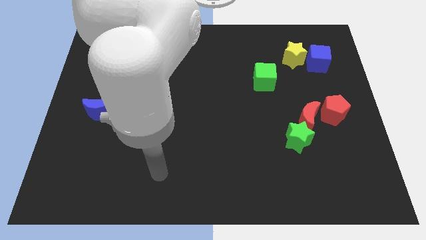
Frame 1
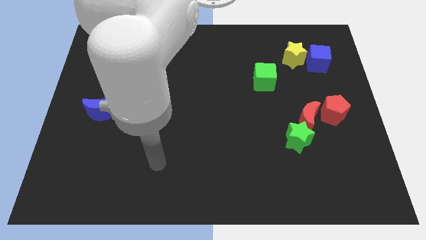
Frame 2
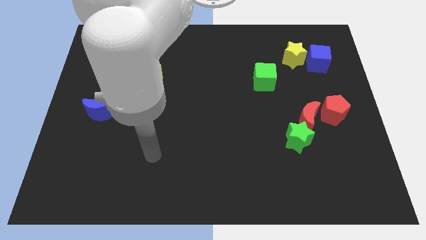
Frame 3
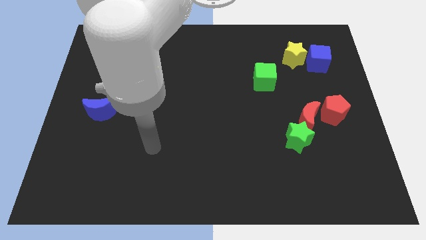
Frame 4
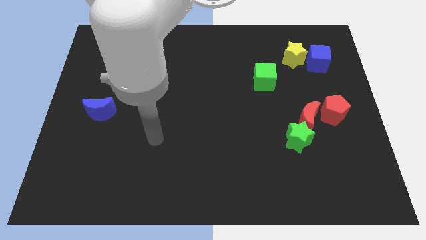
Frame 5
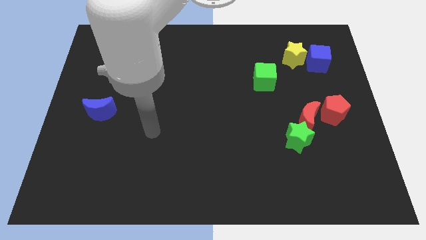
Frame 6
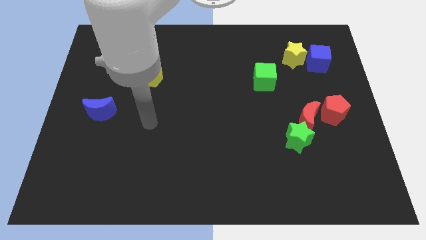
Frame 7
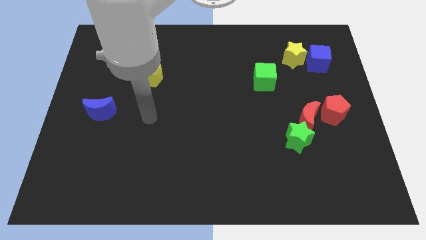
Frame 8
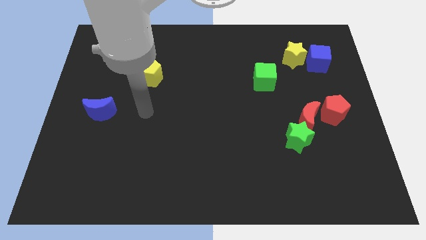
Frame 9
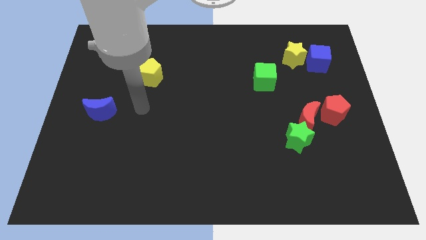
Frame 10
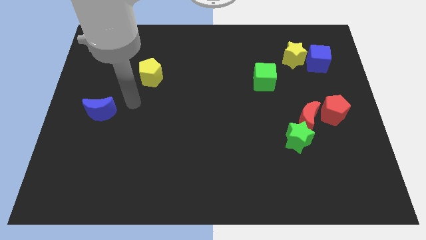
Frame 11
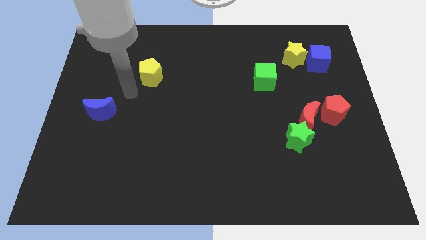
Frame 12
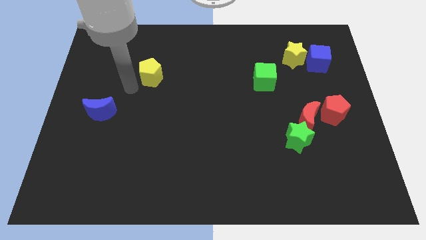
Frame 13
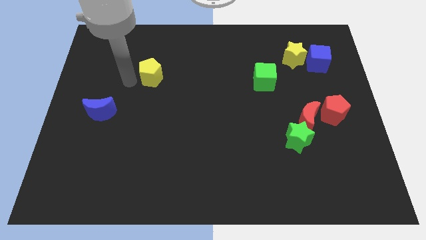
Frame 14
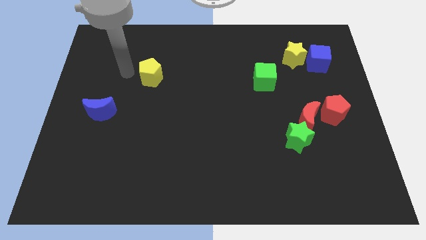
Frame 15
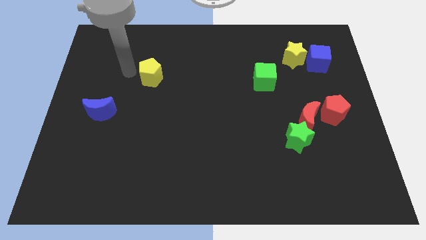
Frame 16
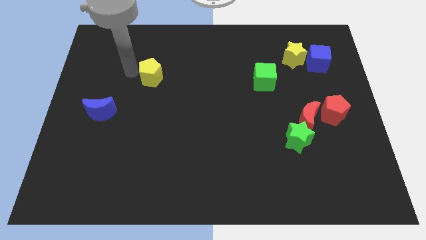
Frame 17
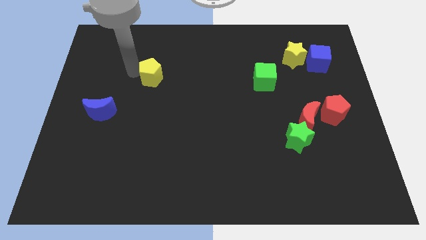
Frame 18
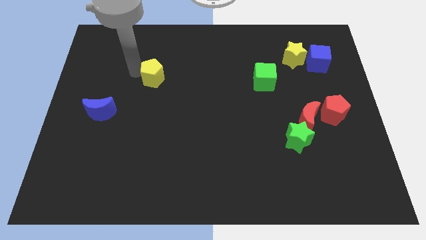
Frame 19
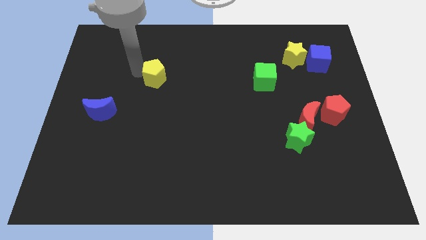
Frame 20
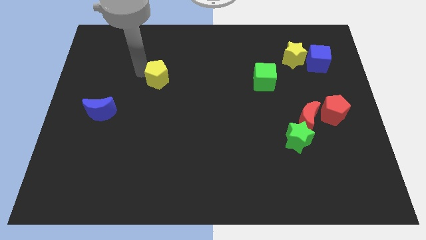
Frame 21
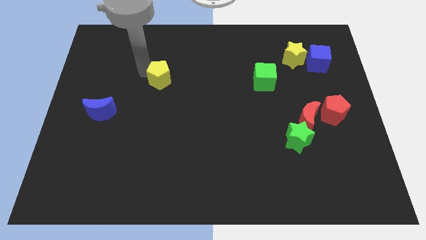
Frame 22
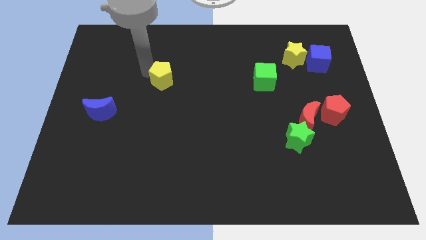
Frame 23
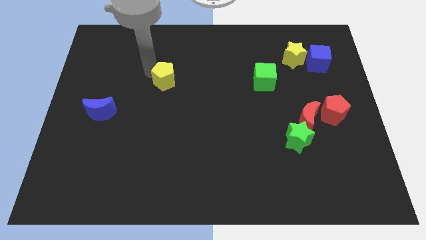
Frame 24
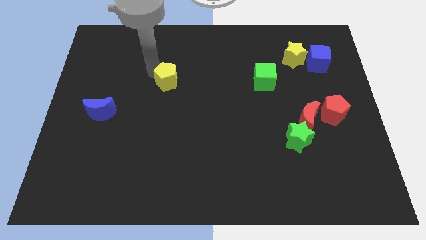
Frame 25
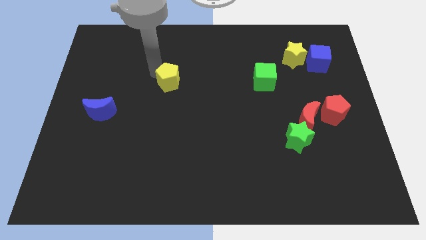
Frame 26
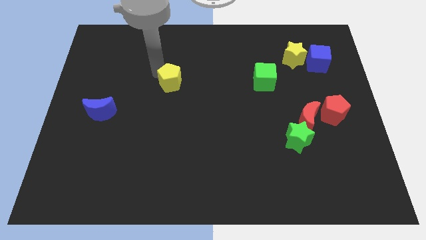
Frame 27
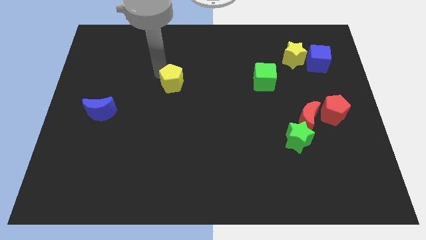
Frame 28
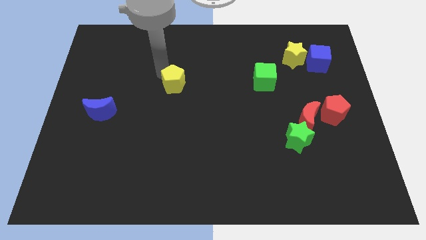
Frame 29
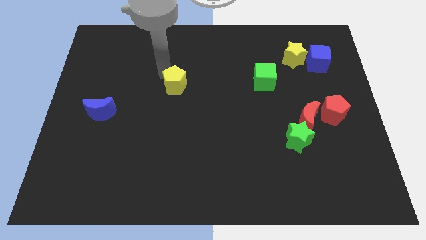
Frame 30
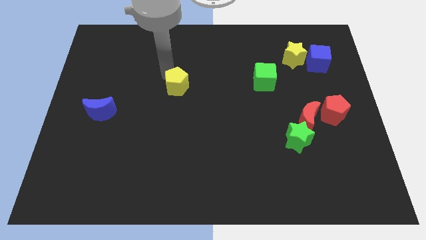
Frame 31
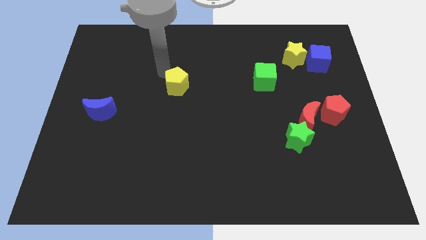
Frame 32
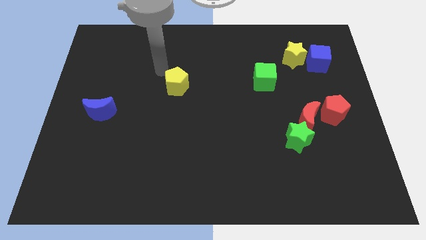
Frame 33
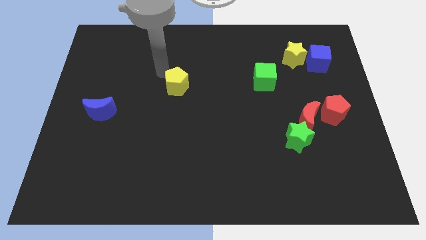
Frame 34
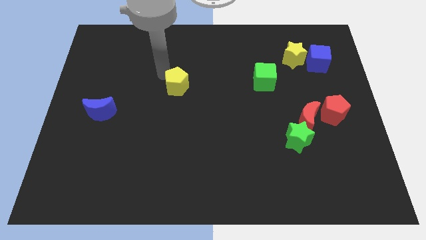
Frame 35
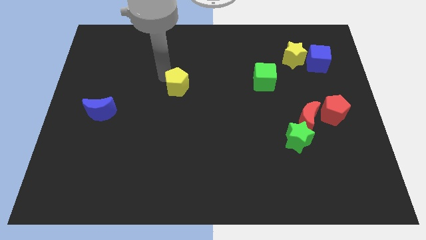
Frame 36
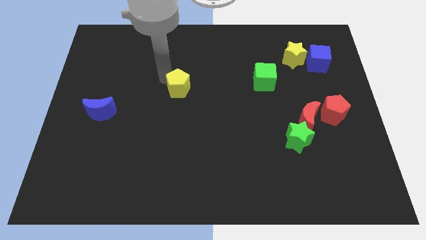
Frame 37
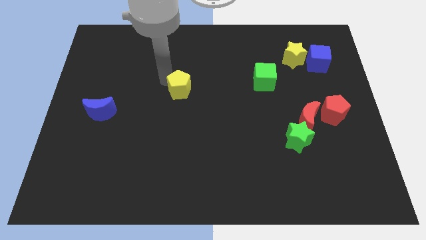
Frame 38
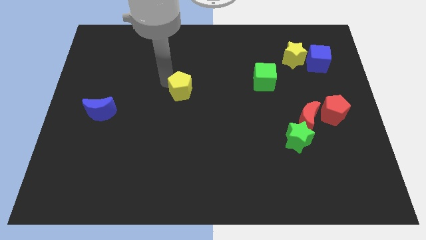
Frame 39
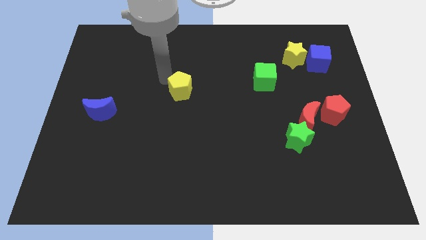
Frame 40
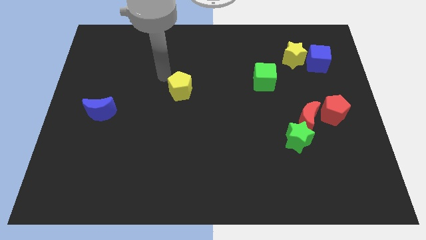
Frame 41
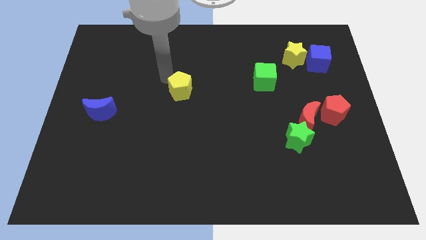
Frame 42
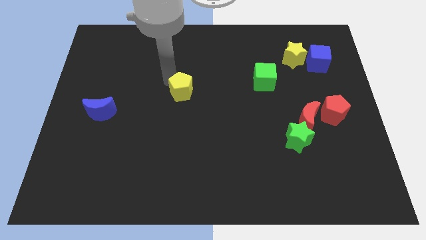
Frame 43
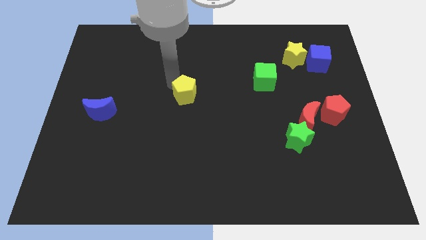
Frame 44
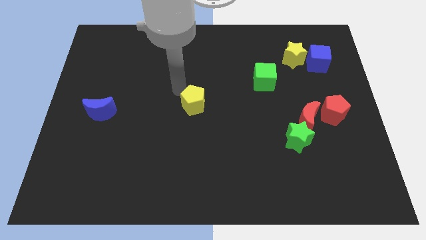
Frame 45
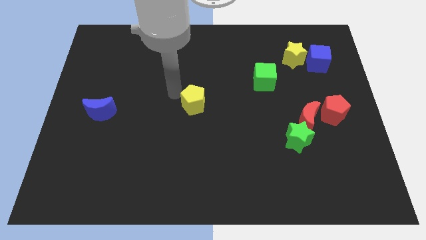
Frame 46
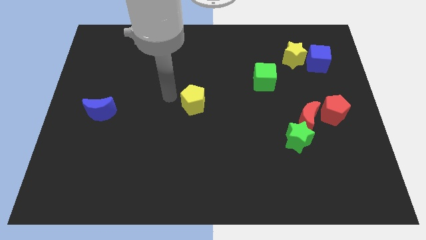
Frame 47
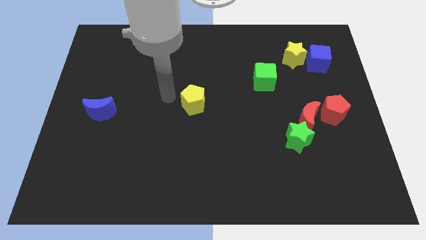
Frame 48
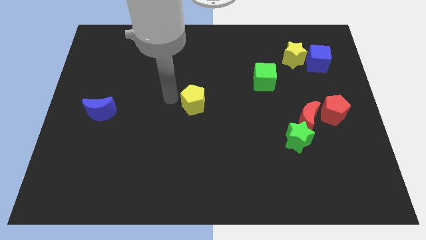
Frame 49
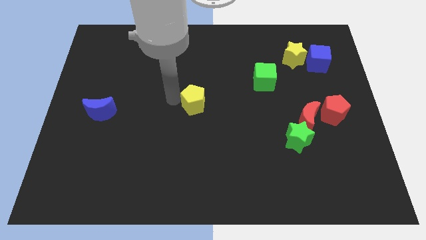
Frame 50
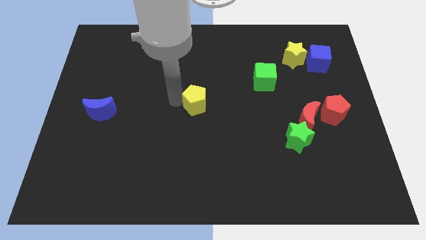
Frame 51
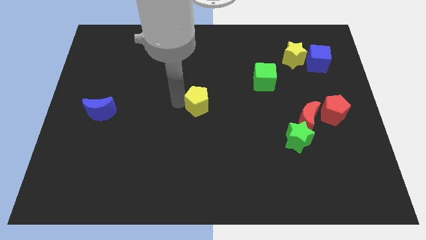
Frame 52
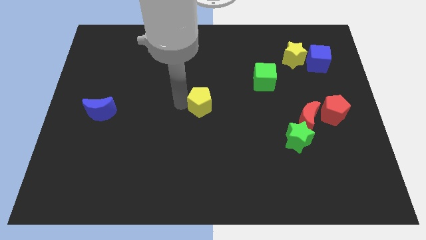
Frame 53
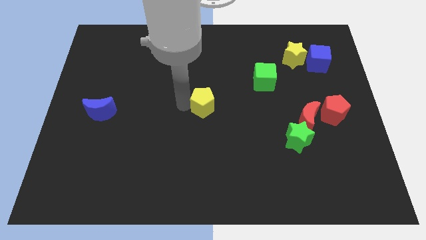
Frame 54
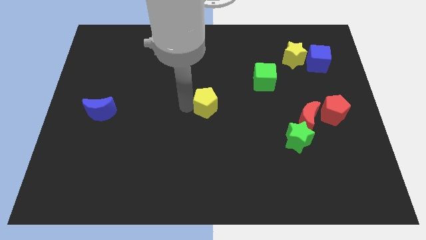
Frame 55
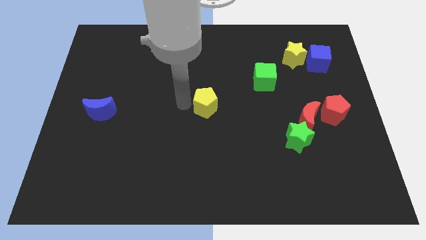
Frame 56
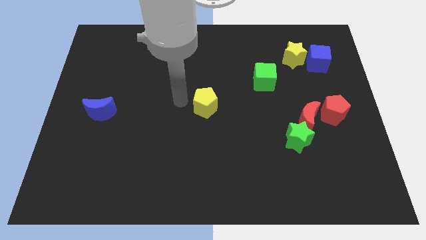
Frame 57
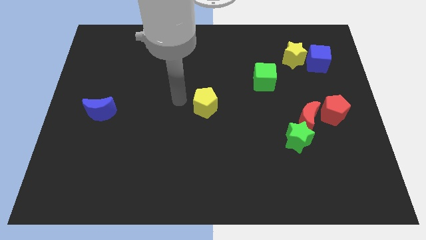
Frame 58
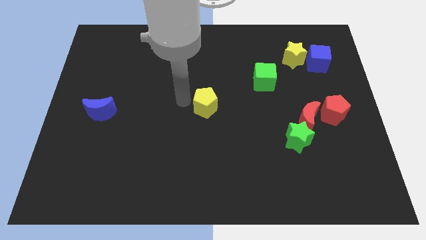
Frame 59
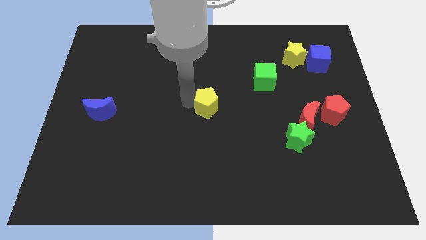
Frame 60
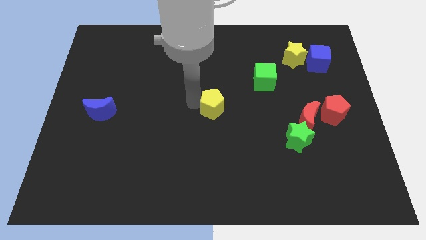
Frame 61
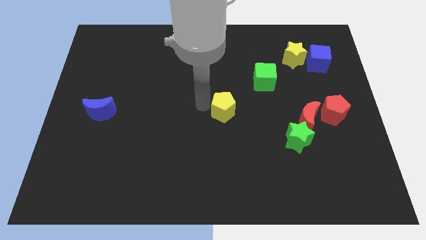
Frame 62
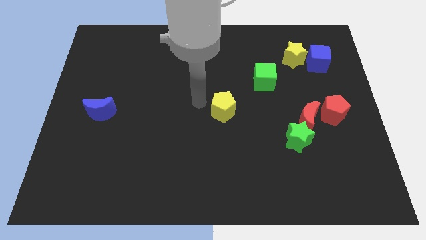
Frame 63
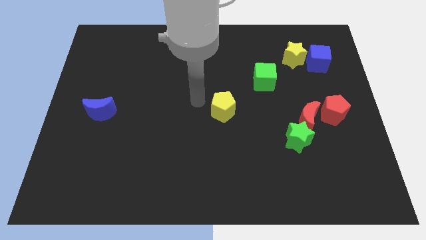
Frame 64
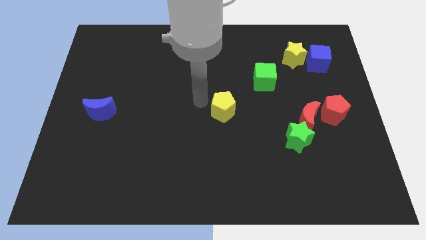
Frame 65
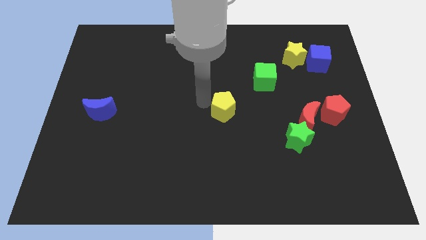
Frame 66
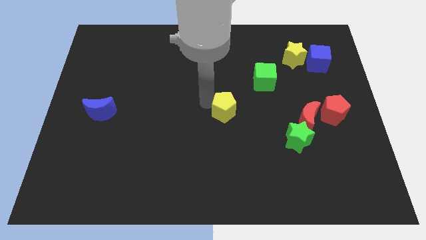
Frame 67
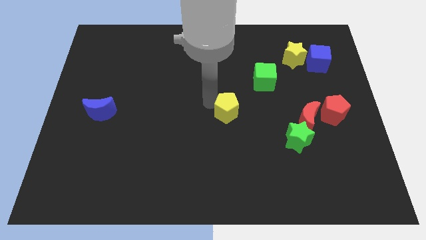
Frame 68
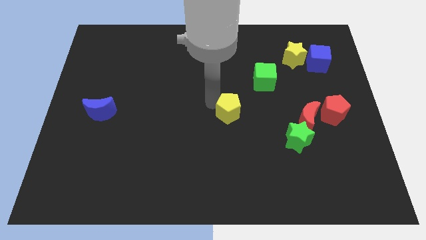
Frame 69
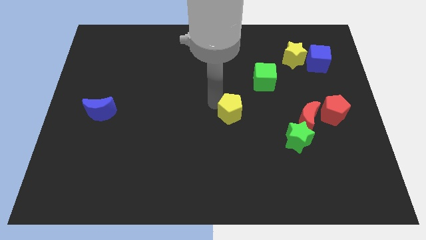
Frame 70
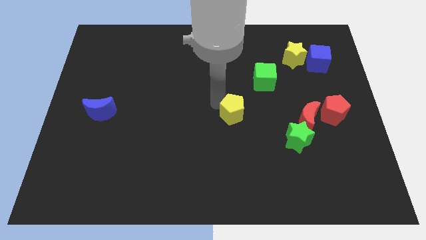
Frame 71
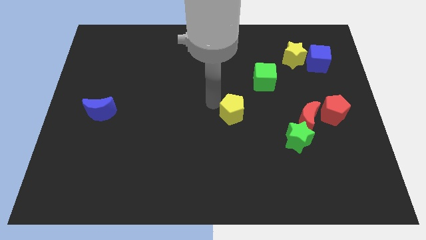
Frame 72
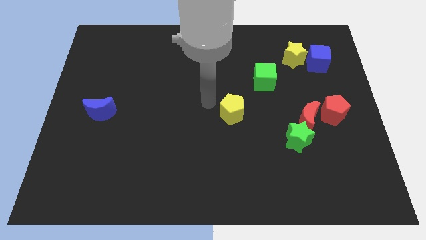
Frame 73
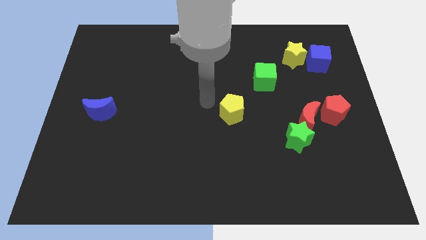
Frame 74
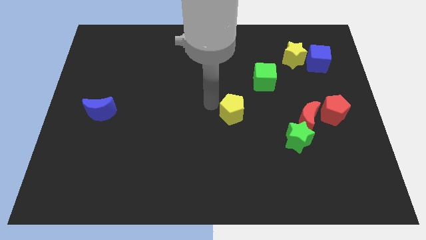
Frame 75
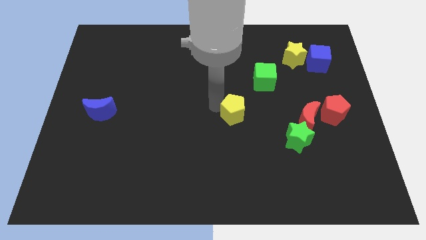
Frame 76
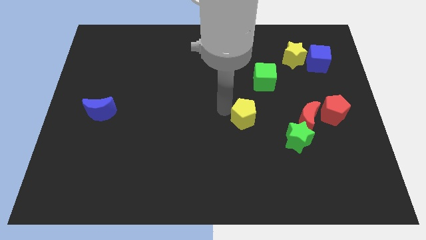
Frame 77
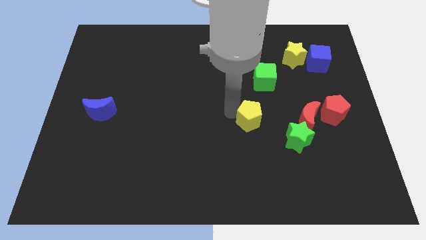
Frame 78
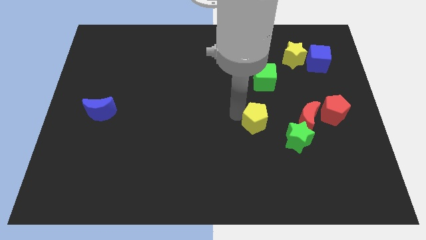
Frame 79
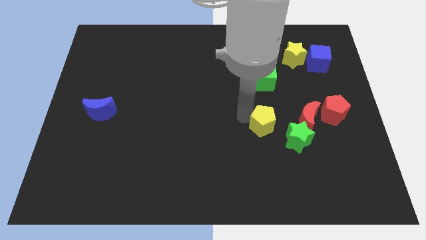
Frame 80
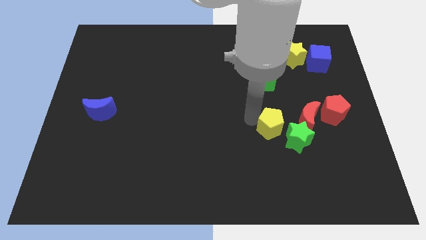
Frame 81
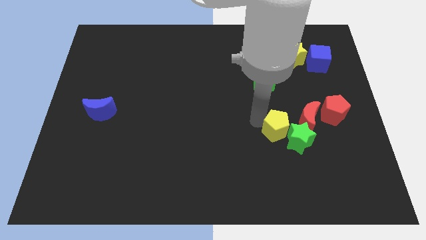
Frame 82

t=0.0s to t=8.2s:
put the yellow pentagon to the green star
